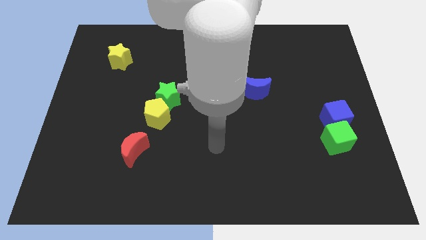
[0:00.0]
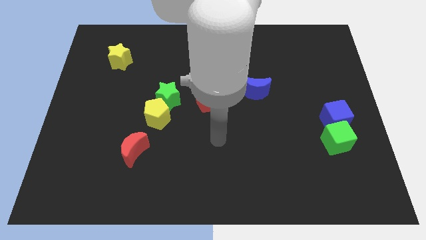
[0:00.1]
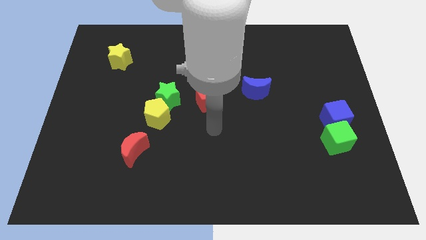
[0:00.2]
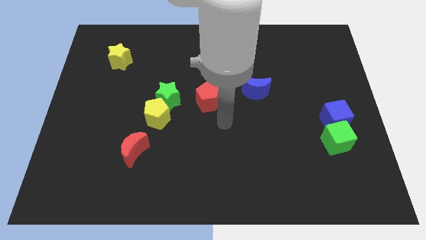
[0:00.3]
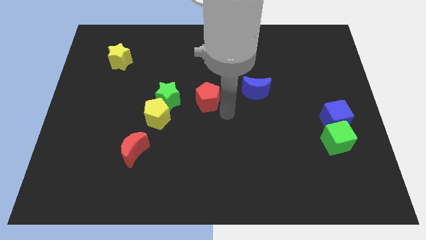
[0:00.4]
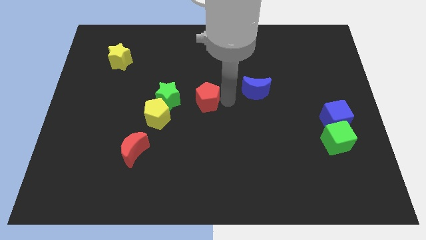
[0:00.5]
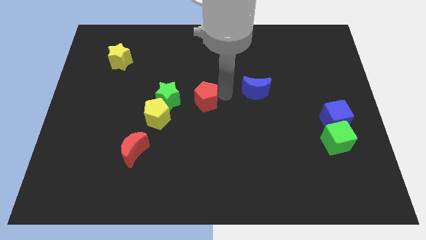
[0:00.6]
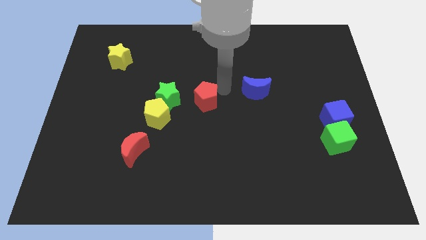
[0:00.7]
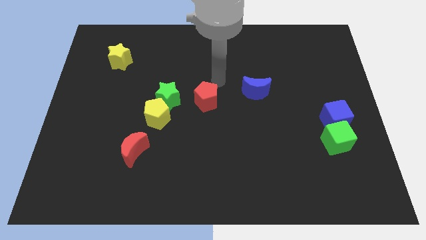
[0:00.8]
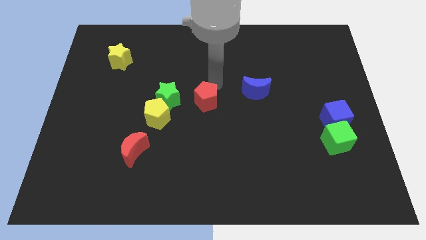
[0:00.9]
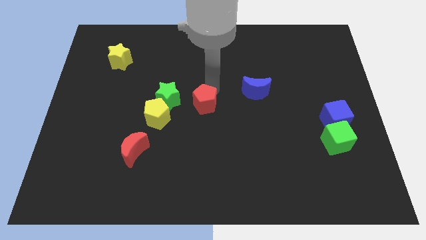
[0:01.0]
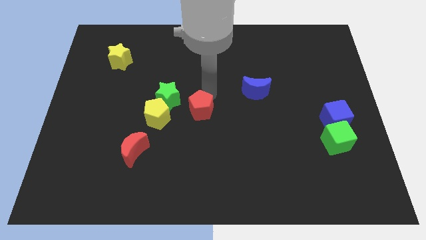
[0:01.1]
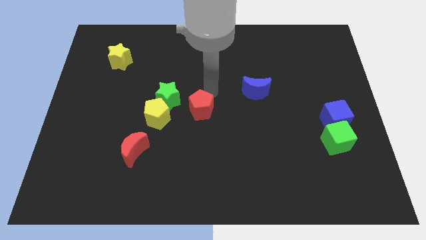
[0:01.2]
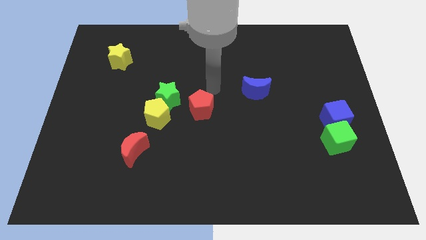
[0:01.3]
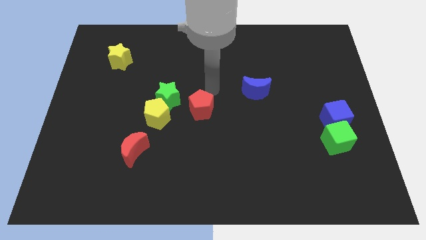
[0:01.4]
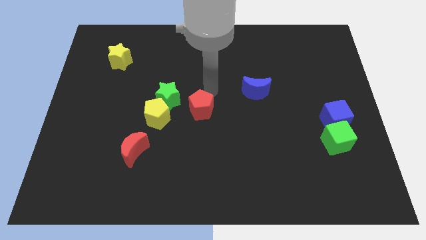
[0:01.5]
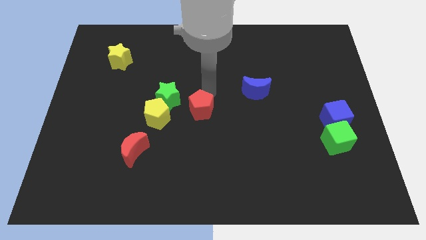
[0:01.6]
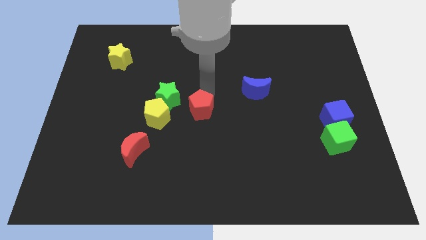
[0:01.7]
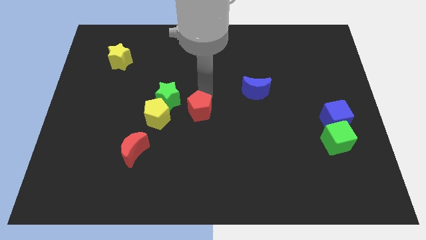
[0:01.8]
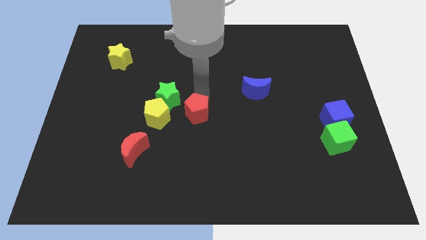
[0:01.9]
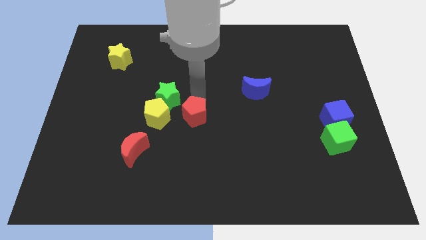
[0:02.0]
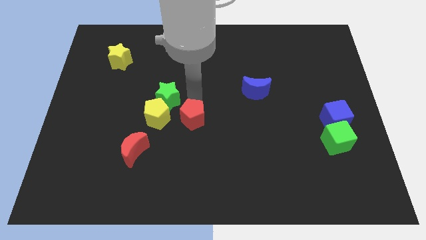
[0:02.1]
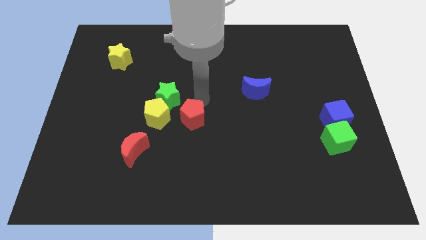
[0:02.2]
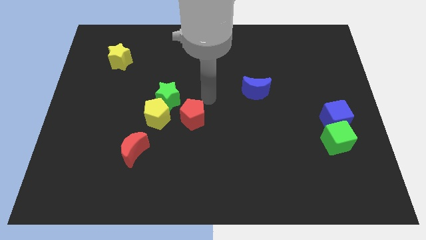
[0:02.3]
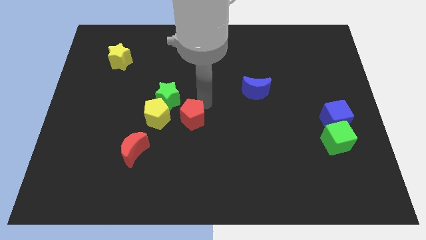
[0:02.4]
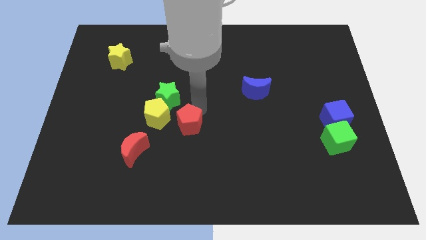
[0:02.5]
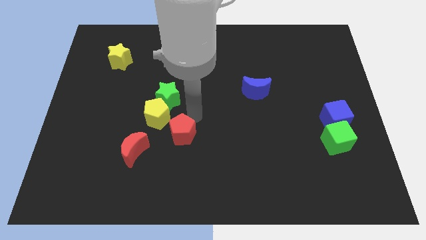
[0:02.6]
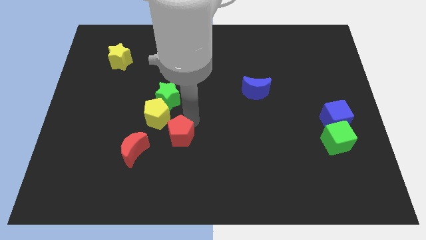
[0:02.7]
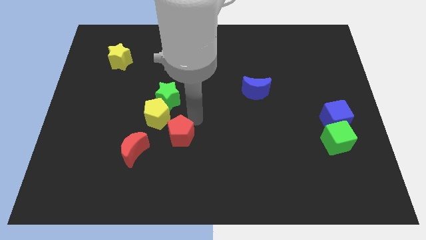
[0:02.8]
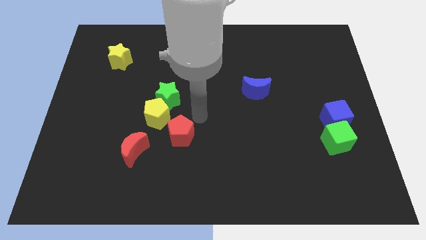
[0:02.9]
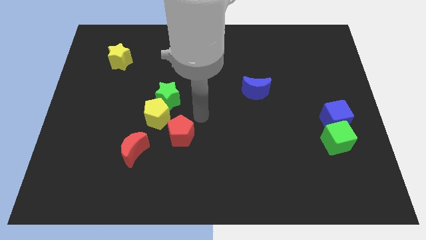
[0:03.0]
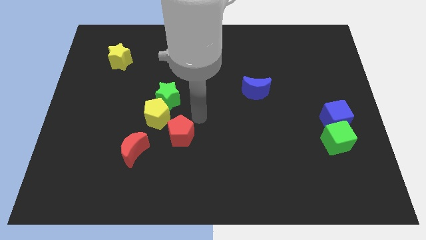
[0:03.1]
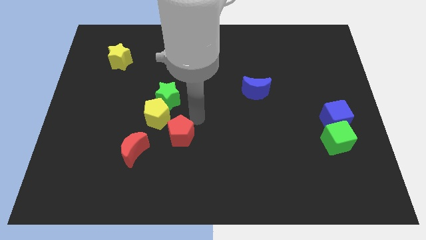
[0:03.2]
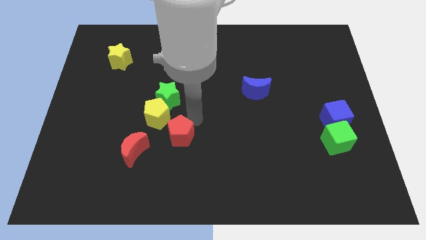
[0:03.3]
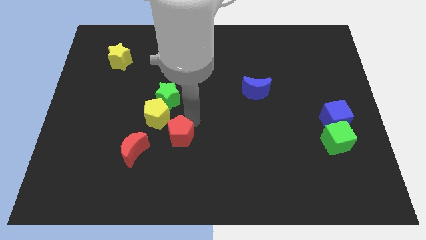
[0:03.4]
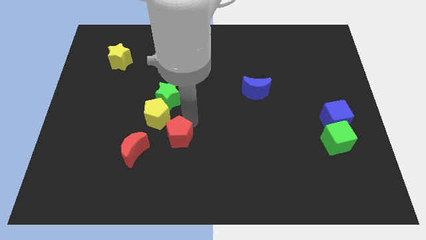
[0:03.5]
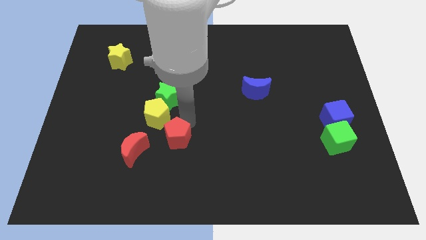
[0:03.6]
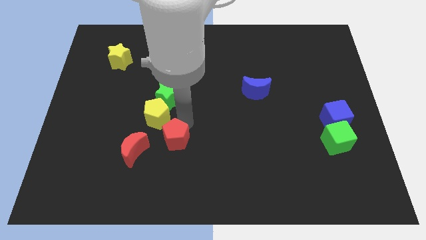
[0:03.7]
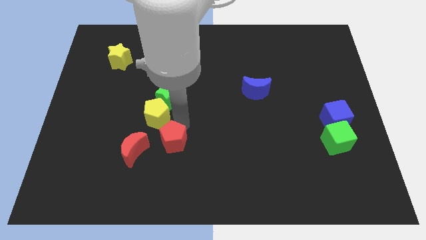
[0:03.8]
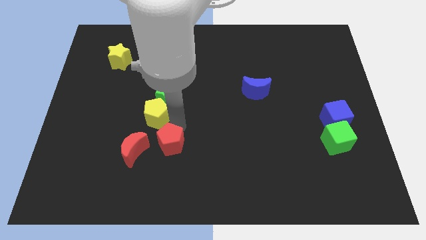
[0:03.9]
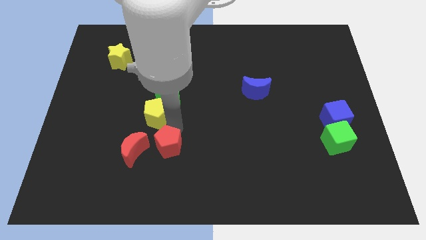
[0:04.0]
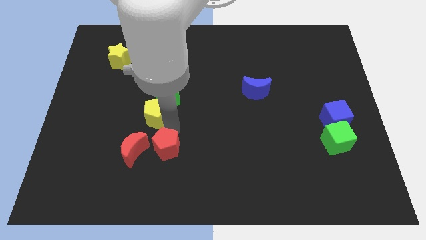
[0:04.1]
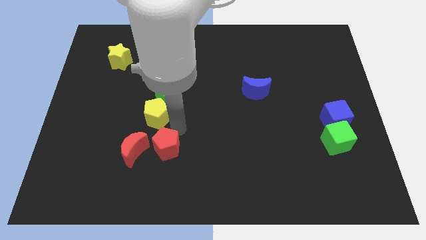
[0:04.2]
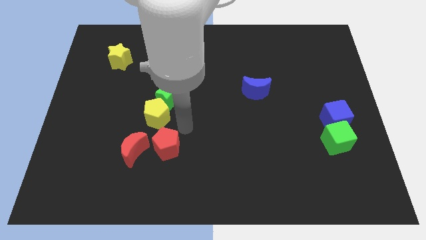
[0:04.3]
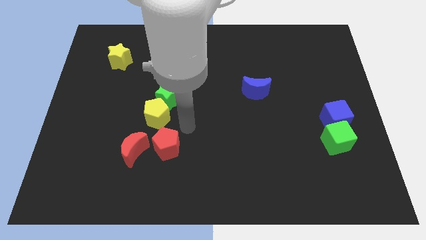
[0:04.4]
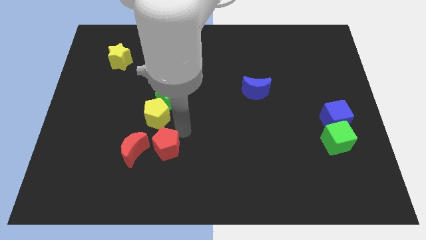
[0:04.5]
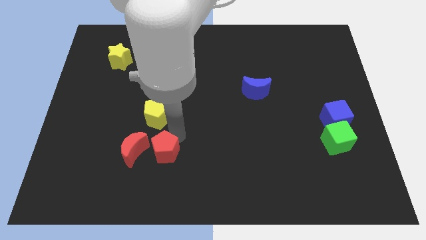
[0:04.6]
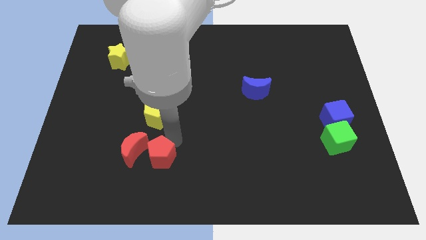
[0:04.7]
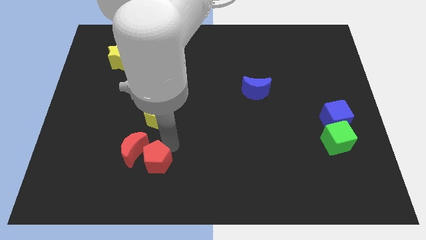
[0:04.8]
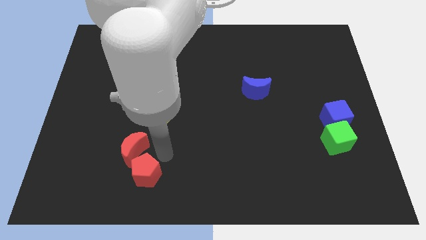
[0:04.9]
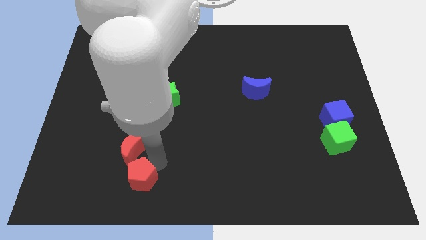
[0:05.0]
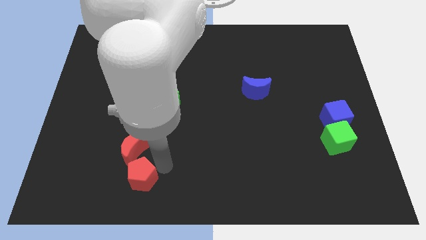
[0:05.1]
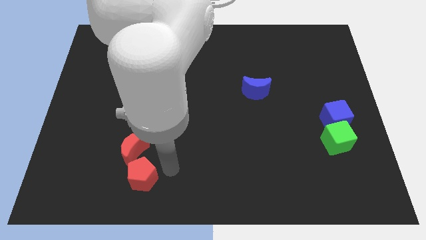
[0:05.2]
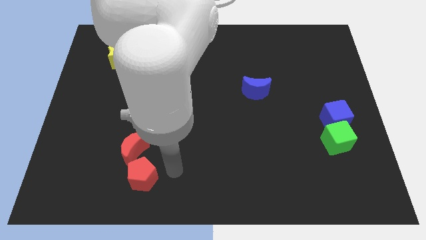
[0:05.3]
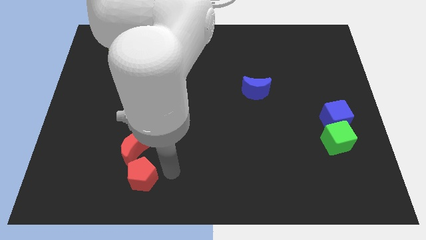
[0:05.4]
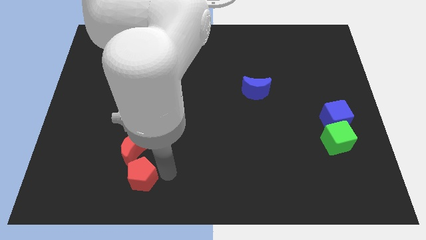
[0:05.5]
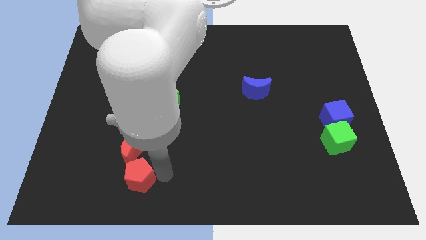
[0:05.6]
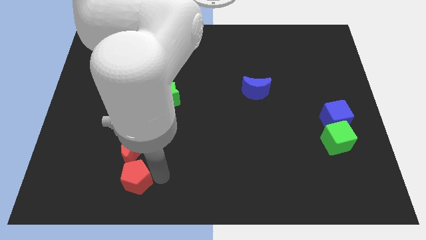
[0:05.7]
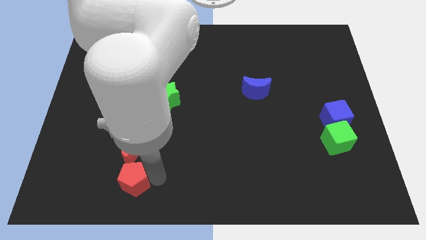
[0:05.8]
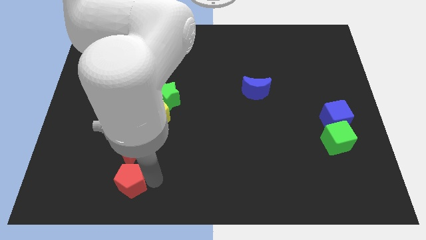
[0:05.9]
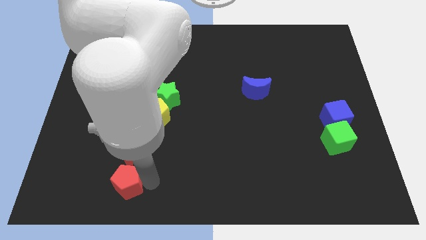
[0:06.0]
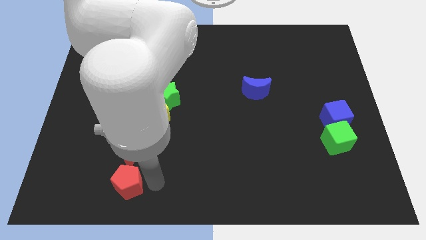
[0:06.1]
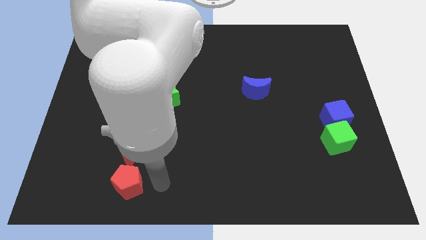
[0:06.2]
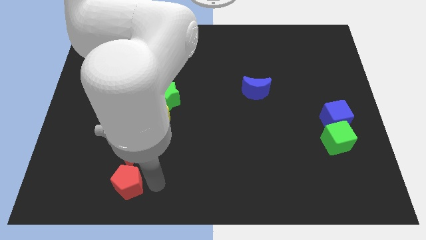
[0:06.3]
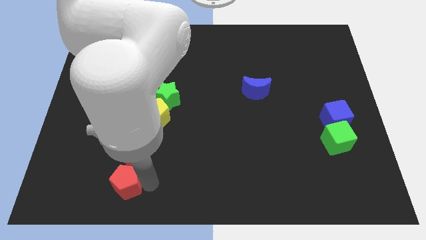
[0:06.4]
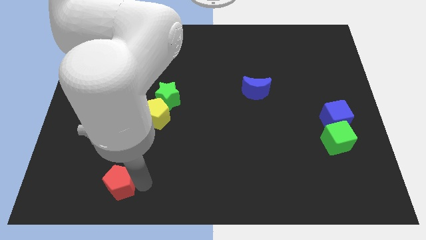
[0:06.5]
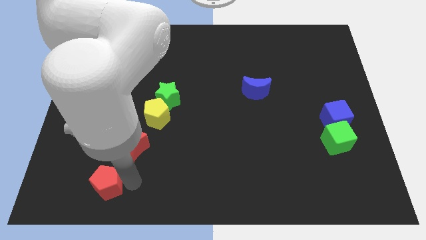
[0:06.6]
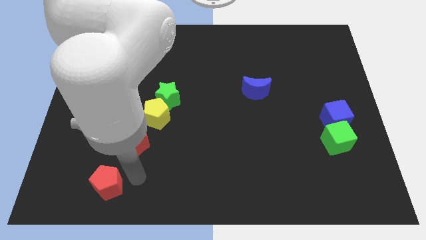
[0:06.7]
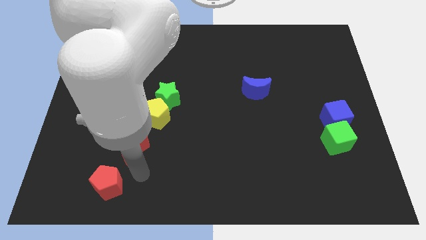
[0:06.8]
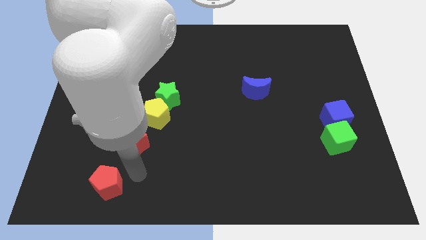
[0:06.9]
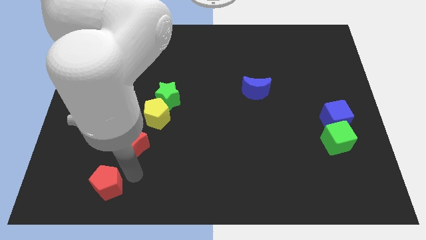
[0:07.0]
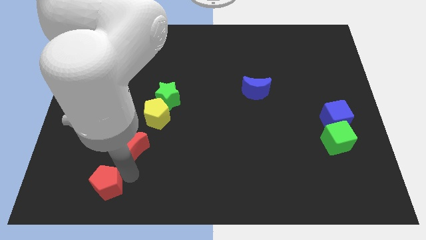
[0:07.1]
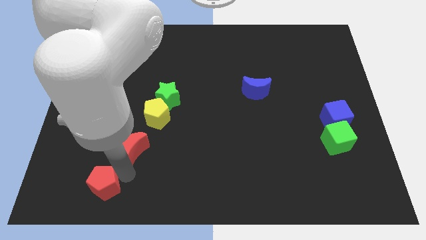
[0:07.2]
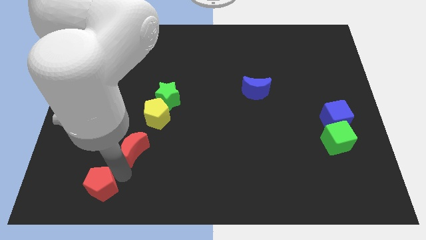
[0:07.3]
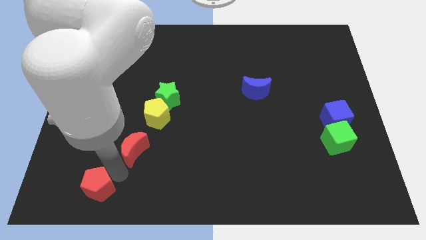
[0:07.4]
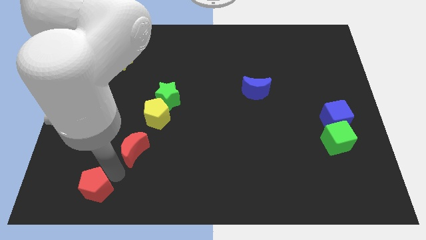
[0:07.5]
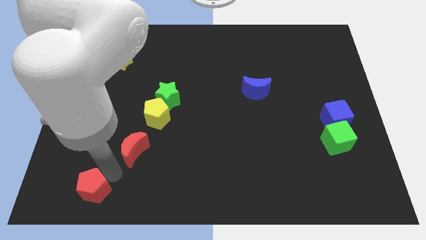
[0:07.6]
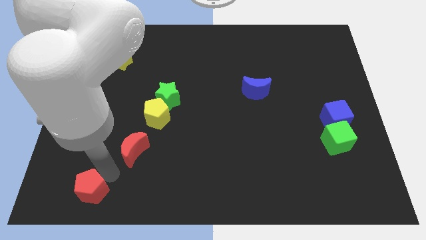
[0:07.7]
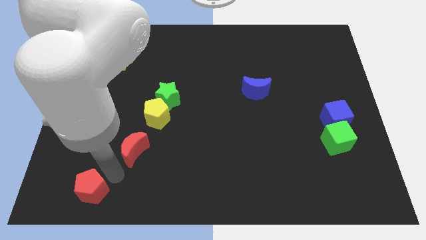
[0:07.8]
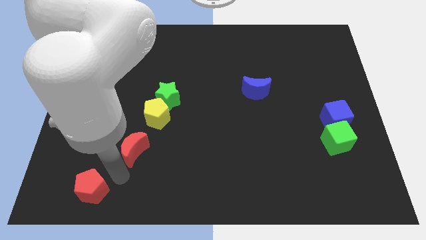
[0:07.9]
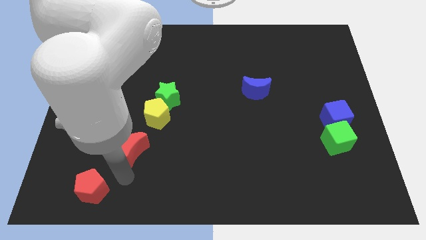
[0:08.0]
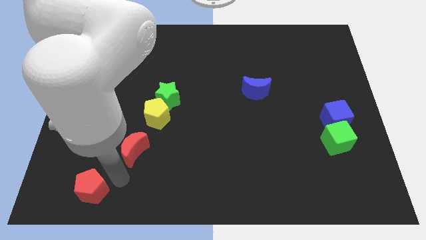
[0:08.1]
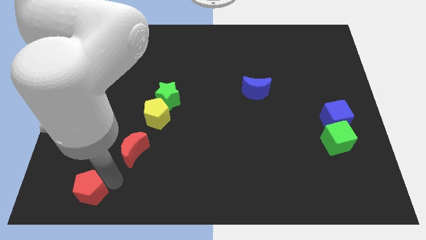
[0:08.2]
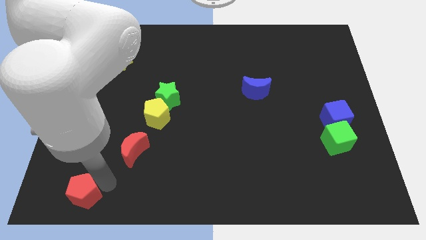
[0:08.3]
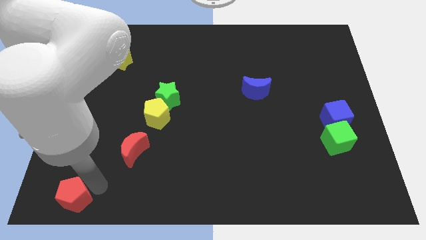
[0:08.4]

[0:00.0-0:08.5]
move the red pentagon to the lower left corner
